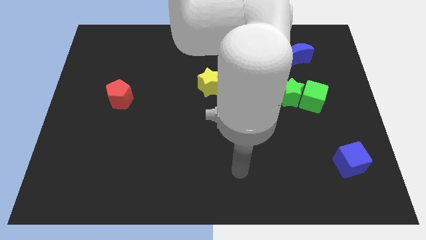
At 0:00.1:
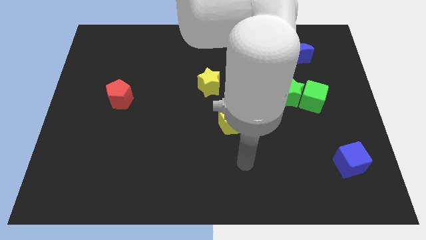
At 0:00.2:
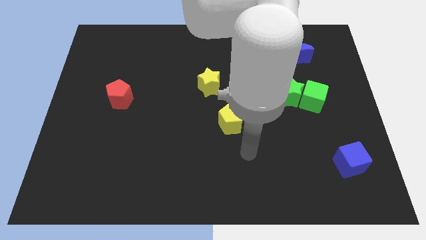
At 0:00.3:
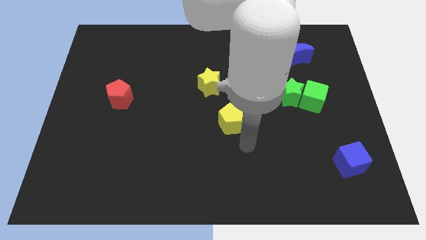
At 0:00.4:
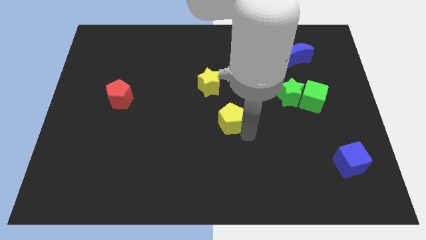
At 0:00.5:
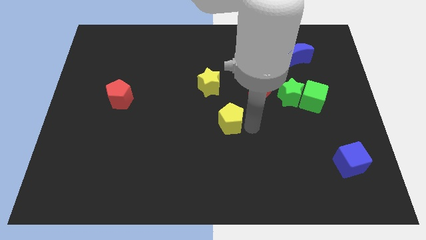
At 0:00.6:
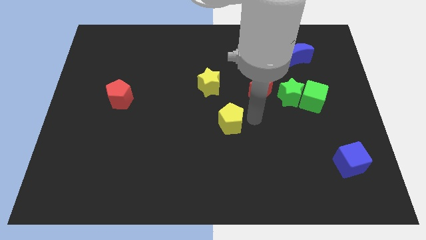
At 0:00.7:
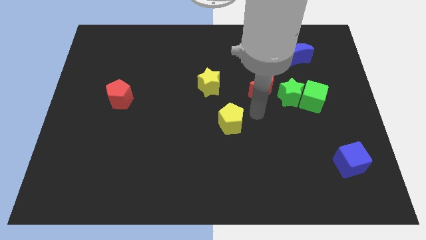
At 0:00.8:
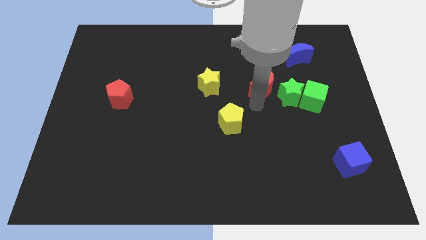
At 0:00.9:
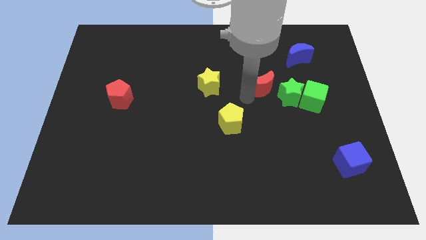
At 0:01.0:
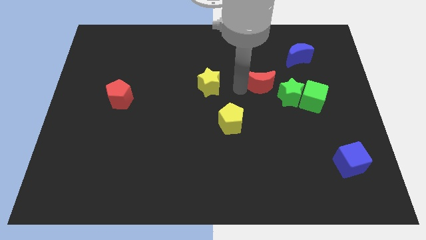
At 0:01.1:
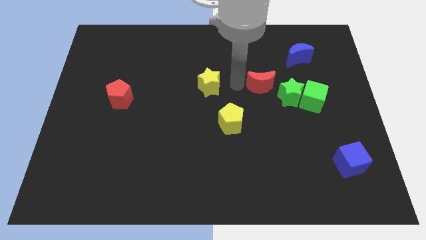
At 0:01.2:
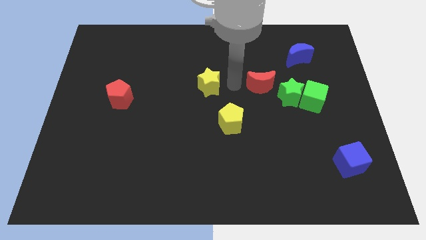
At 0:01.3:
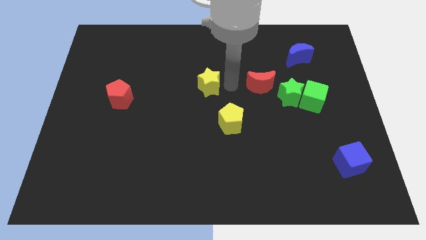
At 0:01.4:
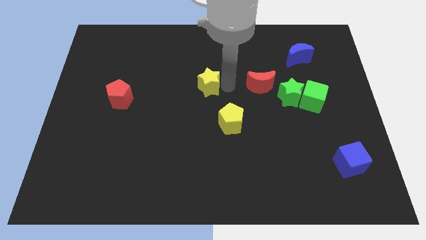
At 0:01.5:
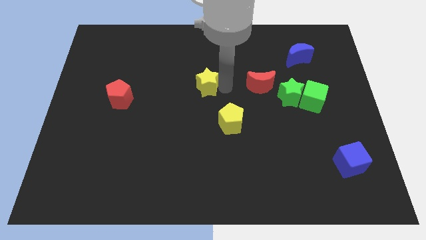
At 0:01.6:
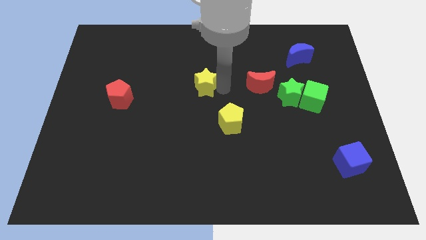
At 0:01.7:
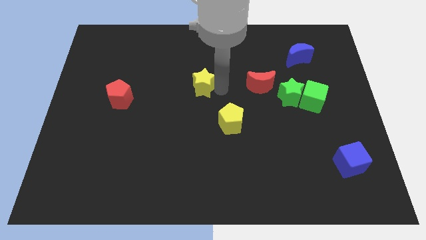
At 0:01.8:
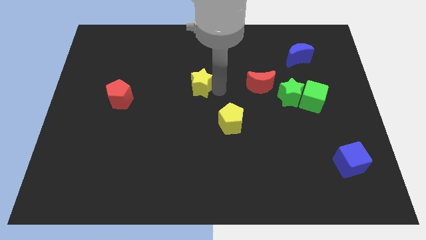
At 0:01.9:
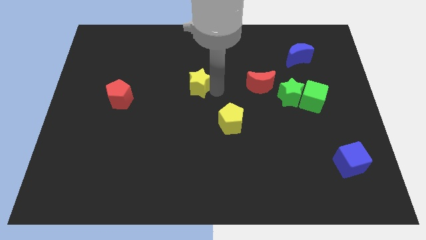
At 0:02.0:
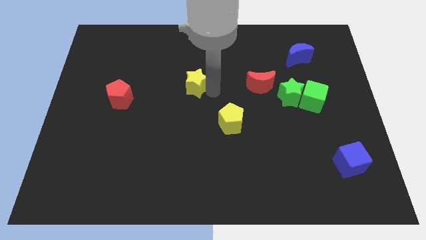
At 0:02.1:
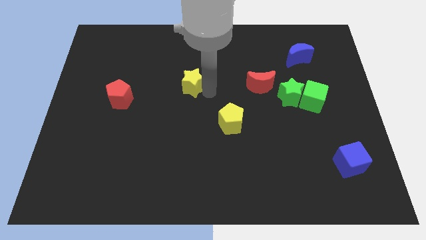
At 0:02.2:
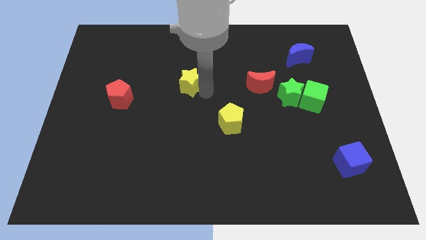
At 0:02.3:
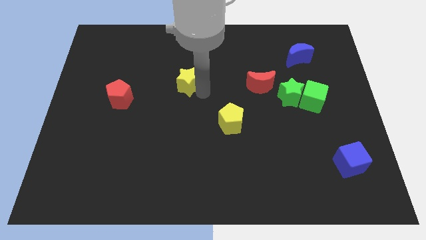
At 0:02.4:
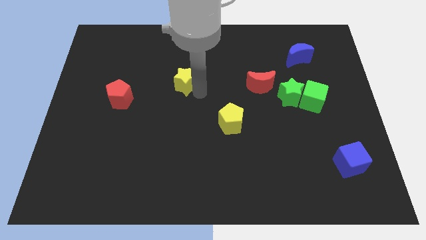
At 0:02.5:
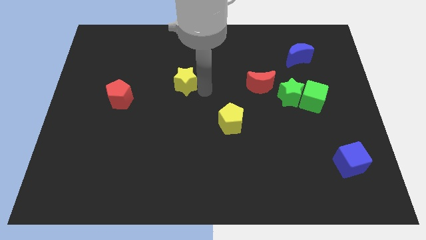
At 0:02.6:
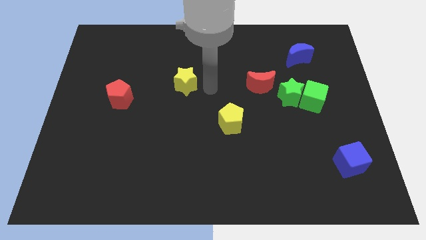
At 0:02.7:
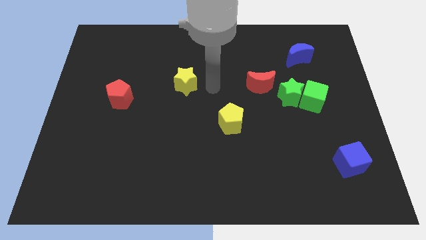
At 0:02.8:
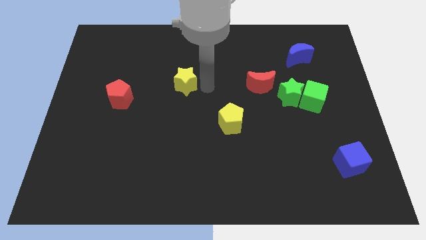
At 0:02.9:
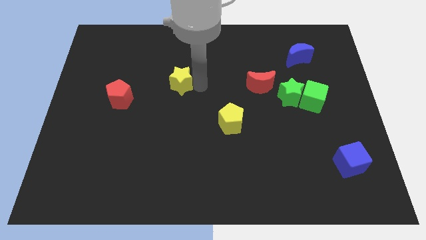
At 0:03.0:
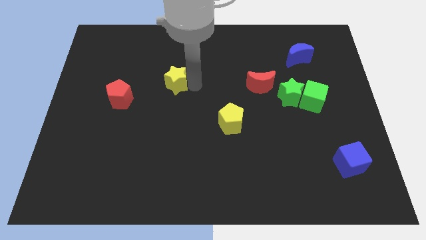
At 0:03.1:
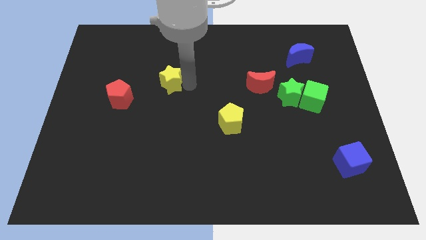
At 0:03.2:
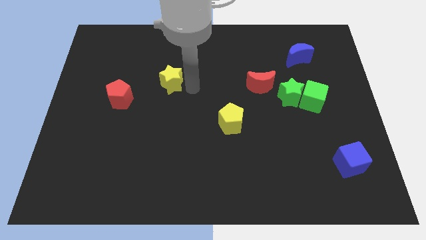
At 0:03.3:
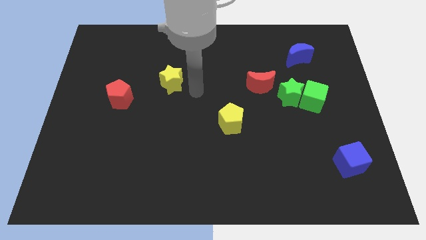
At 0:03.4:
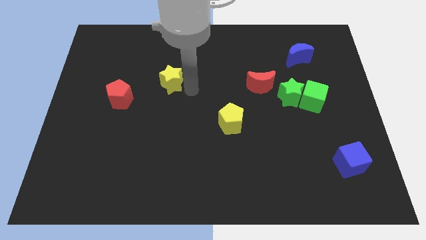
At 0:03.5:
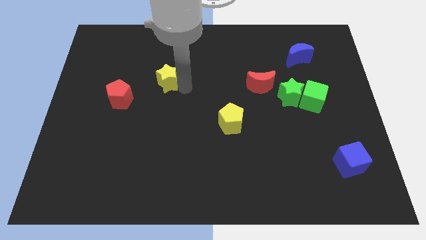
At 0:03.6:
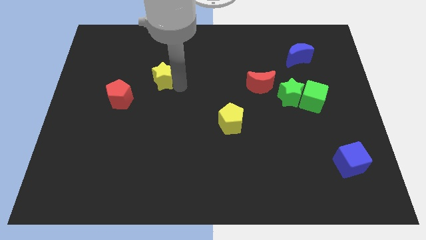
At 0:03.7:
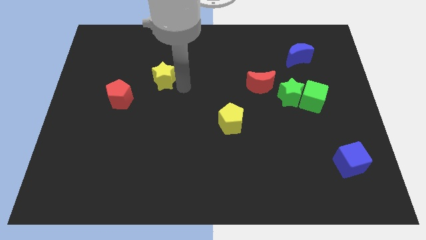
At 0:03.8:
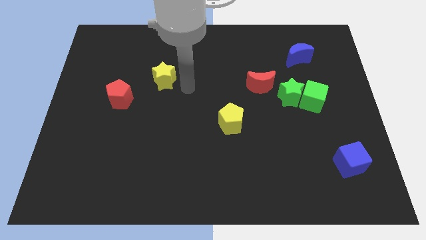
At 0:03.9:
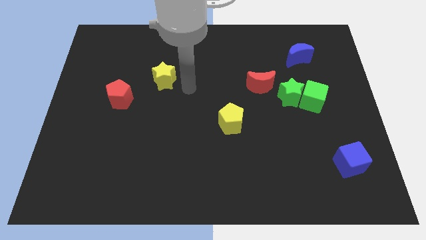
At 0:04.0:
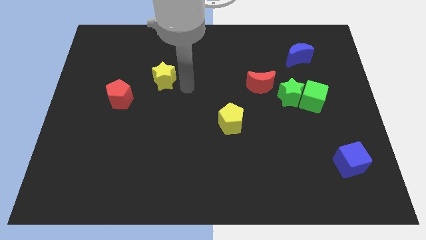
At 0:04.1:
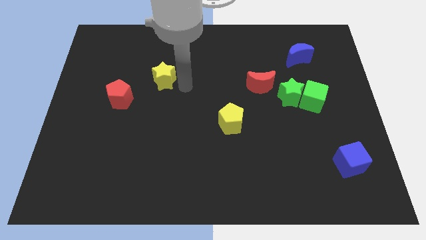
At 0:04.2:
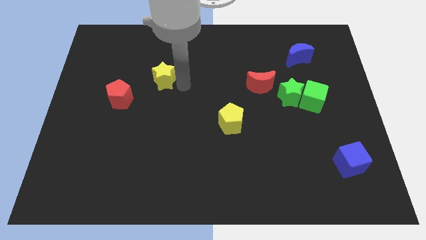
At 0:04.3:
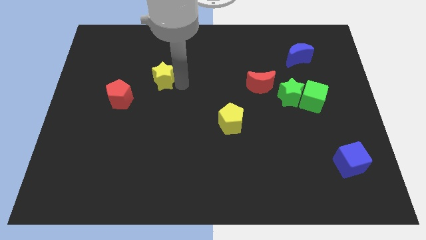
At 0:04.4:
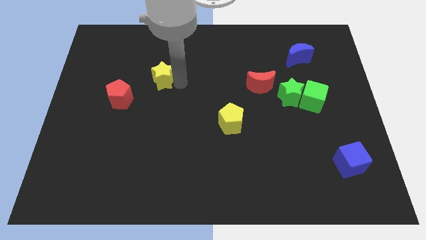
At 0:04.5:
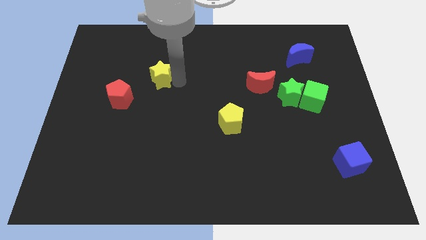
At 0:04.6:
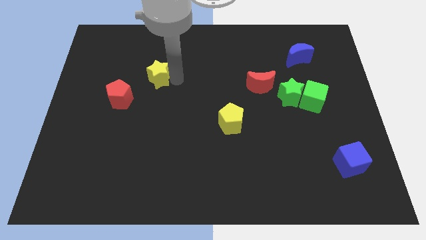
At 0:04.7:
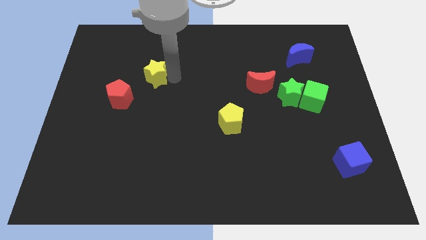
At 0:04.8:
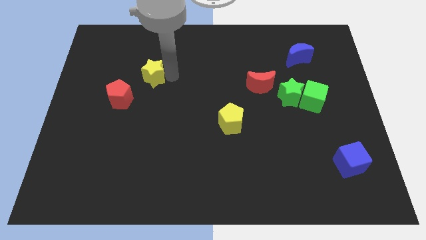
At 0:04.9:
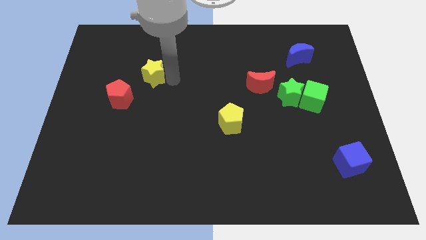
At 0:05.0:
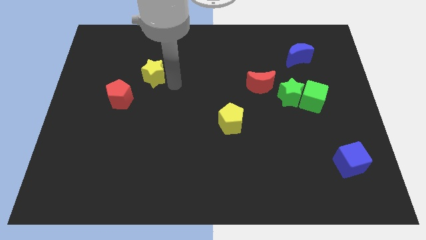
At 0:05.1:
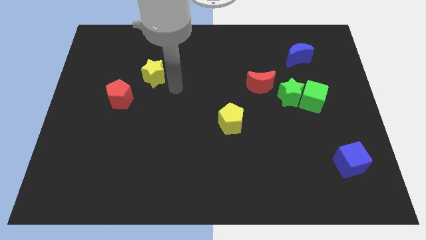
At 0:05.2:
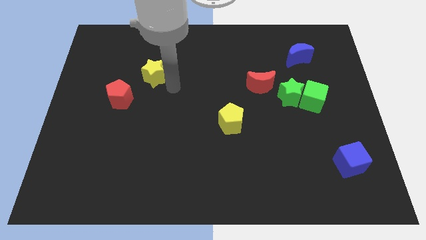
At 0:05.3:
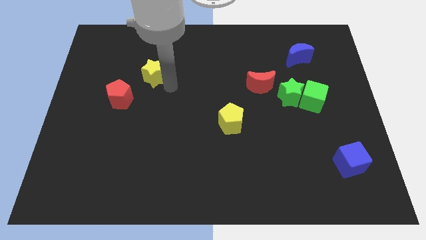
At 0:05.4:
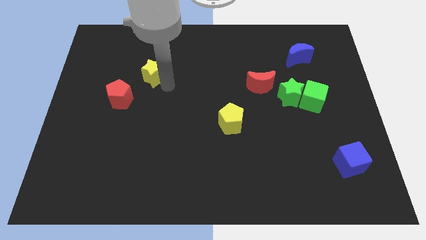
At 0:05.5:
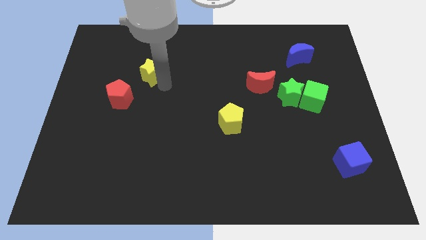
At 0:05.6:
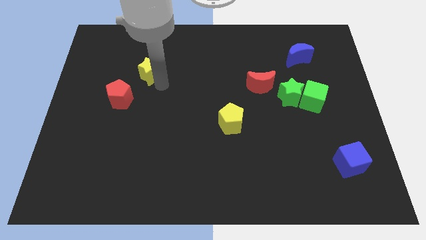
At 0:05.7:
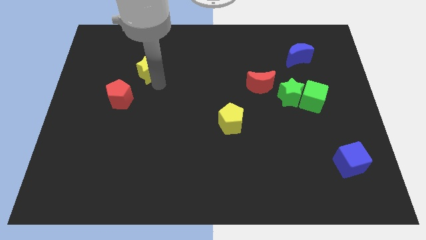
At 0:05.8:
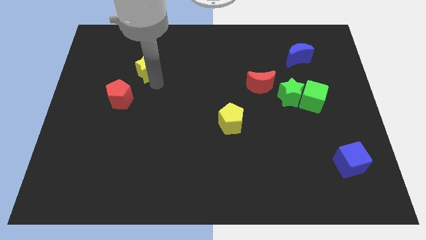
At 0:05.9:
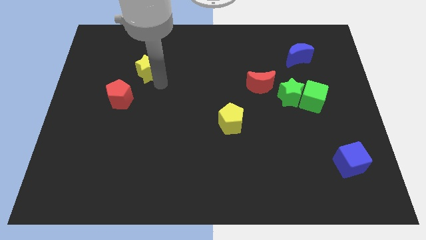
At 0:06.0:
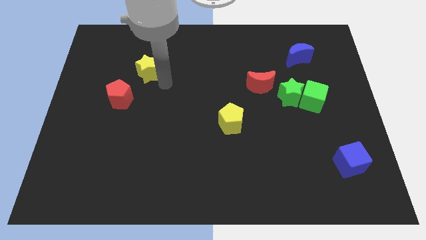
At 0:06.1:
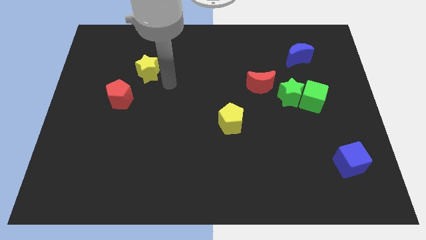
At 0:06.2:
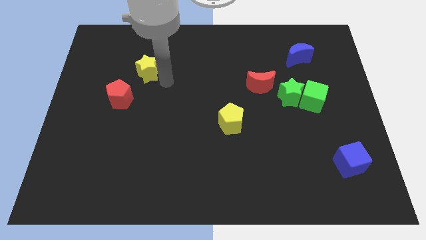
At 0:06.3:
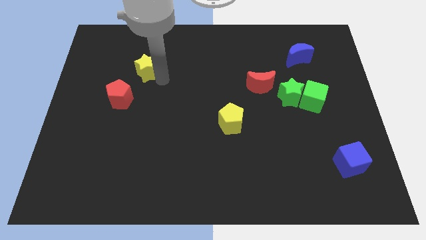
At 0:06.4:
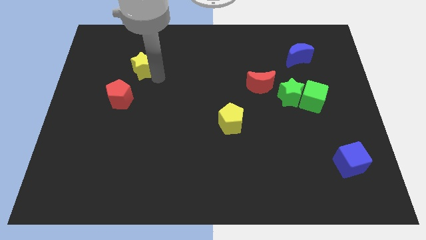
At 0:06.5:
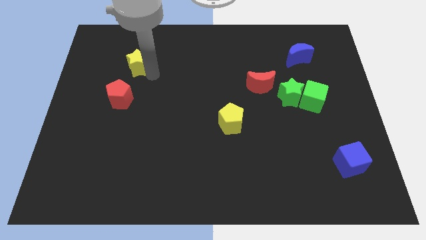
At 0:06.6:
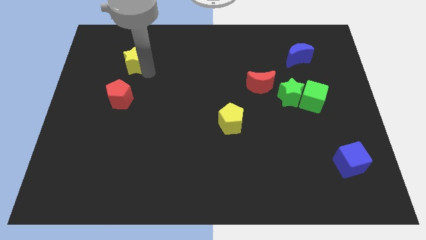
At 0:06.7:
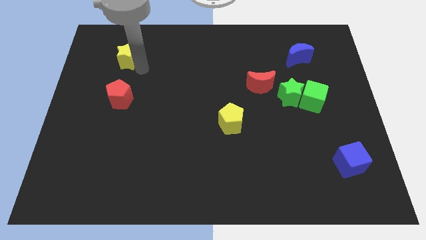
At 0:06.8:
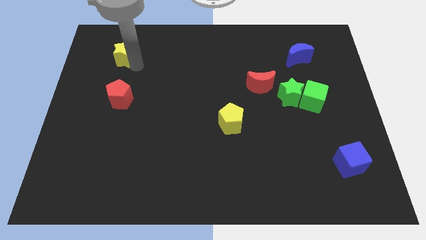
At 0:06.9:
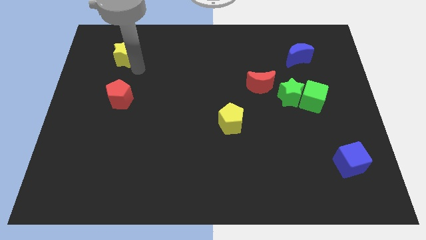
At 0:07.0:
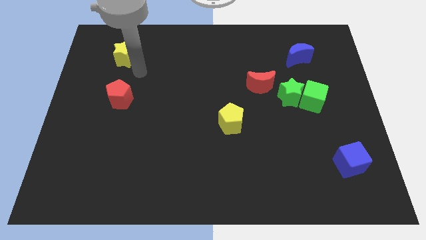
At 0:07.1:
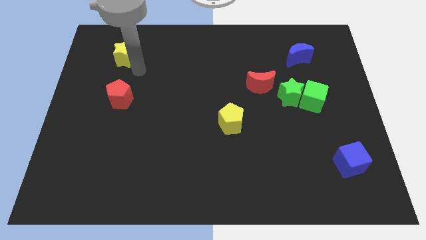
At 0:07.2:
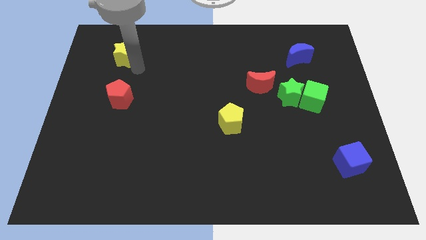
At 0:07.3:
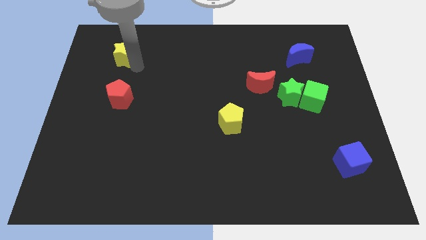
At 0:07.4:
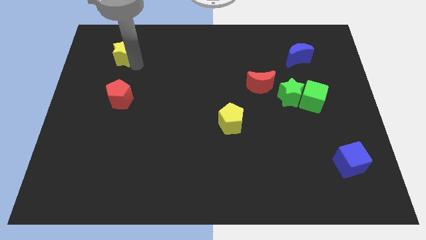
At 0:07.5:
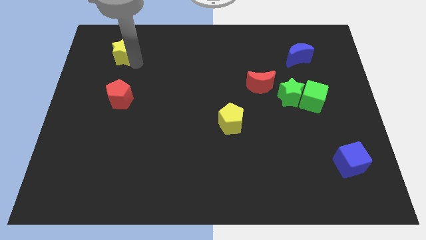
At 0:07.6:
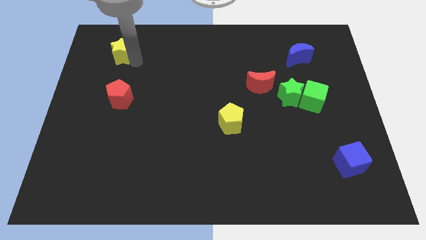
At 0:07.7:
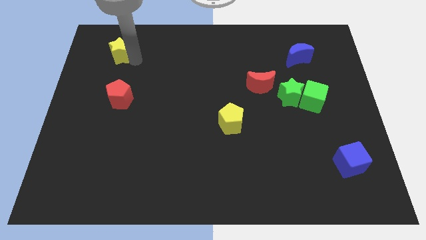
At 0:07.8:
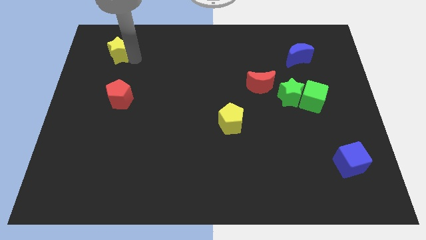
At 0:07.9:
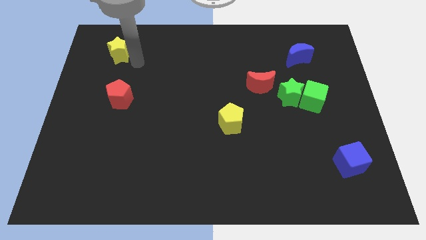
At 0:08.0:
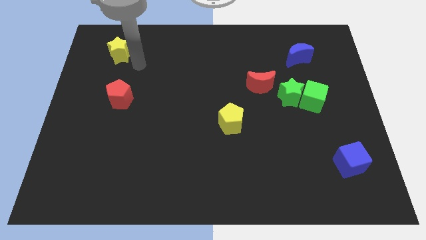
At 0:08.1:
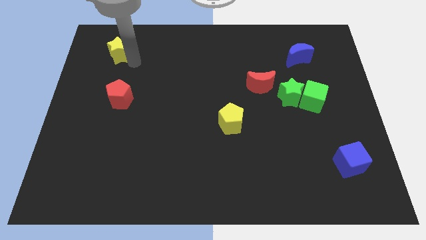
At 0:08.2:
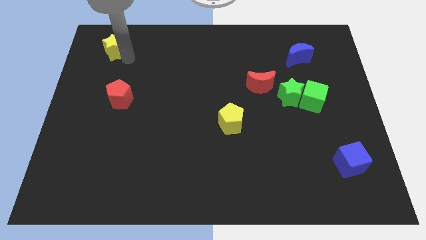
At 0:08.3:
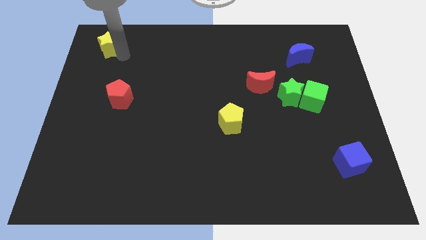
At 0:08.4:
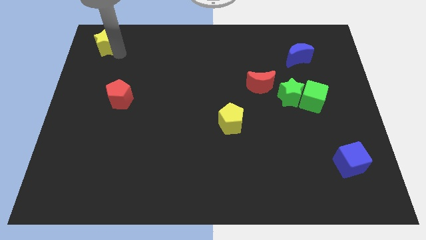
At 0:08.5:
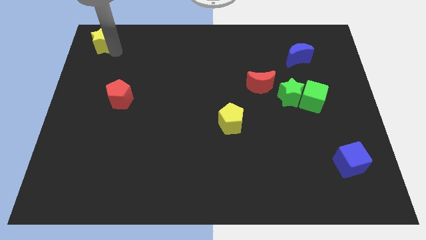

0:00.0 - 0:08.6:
slide the yellow star to the upper left corner
